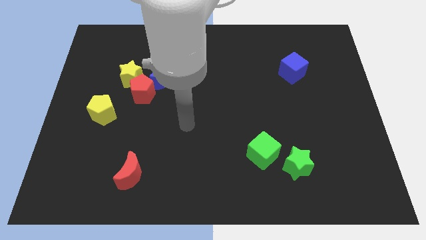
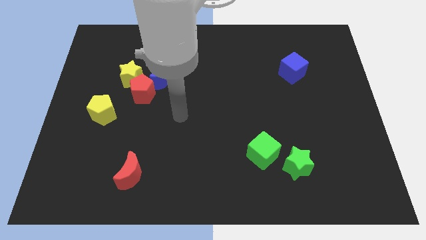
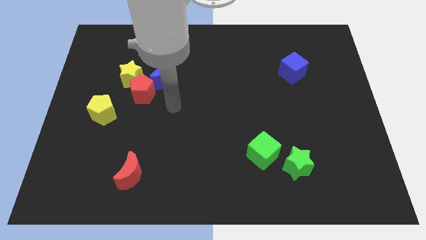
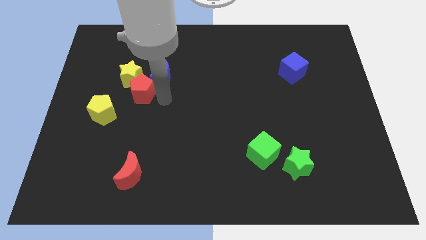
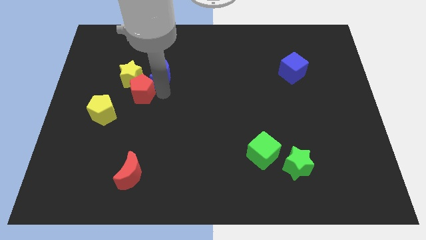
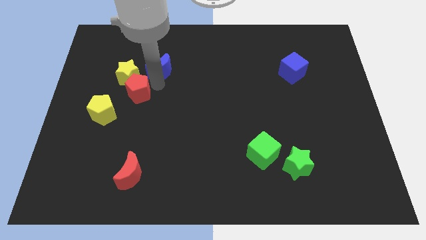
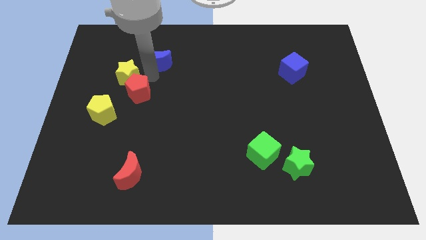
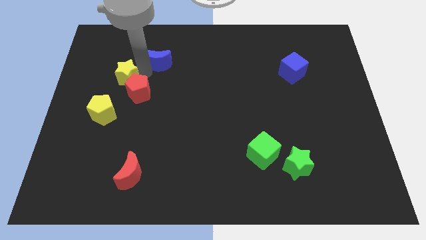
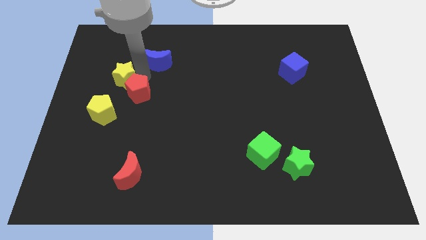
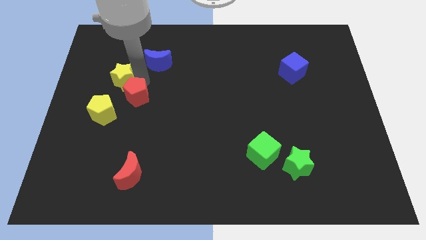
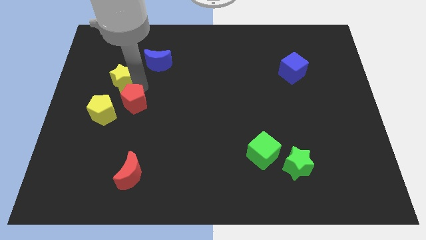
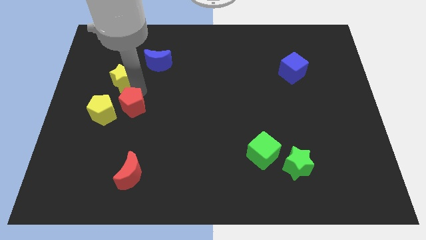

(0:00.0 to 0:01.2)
move the red pentagon away from the yellow star and blue moon

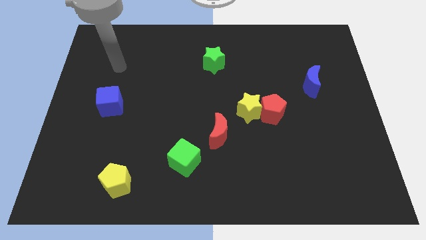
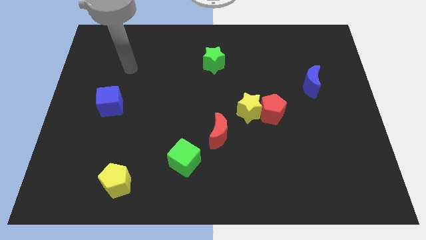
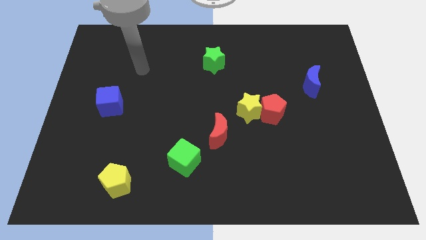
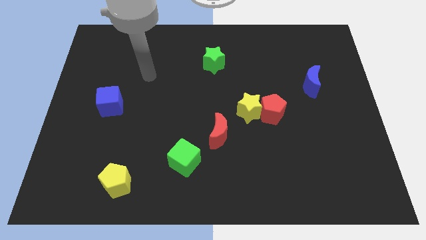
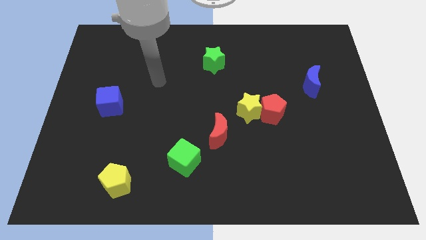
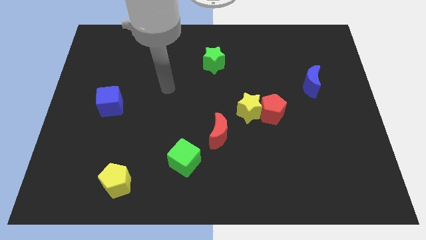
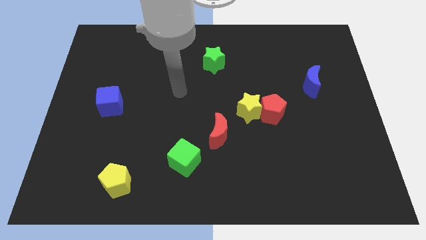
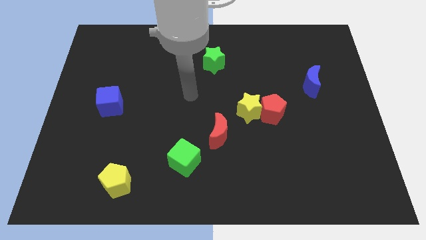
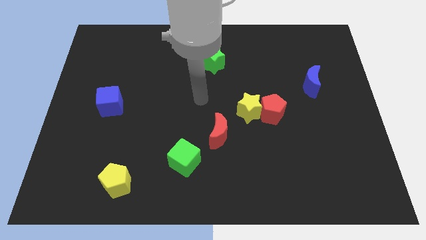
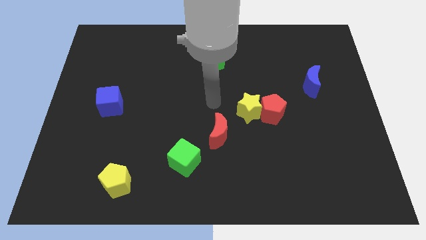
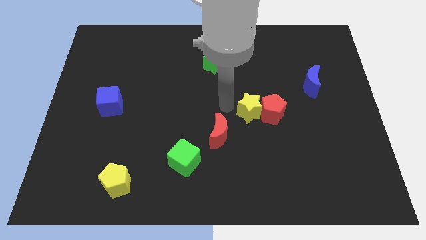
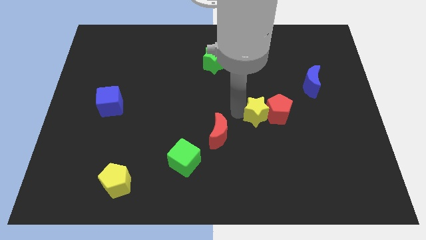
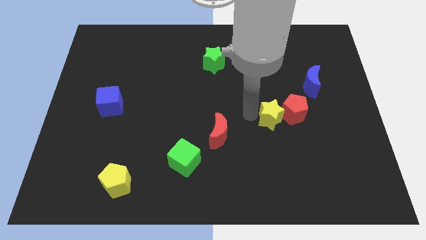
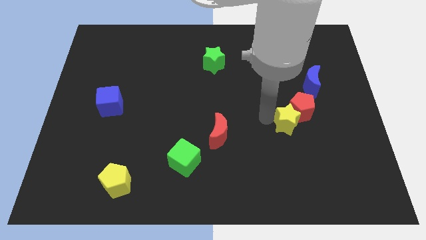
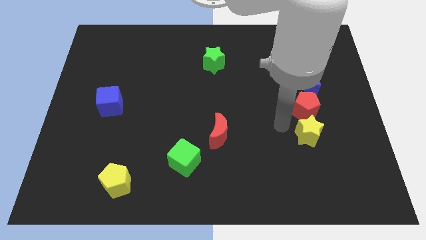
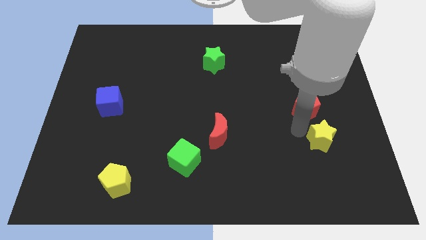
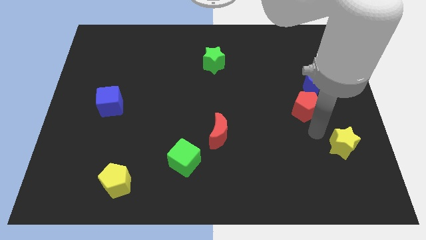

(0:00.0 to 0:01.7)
move the red pentagon away from the yellow star

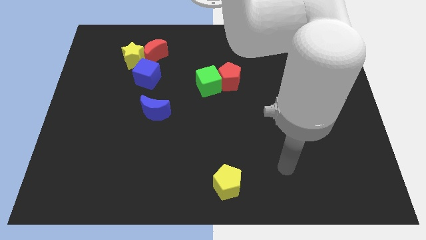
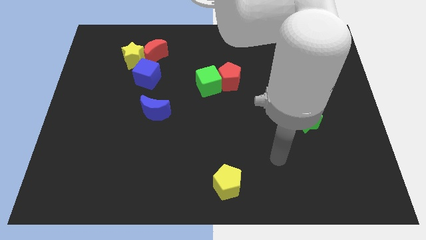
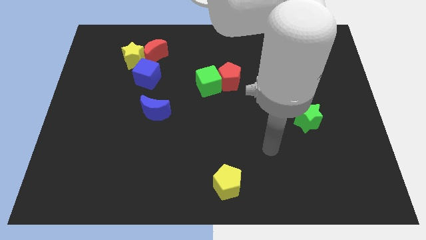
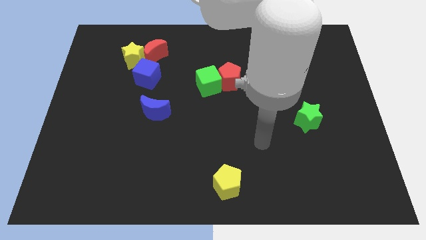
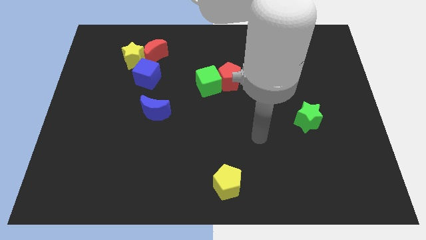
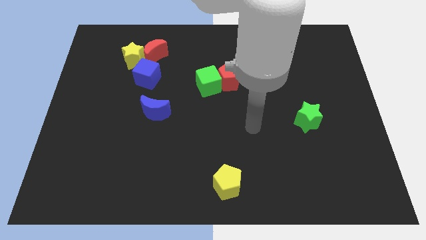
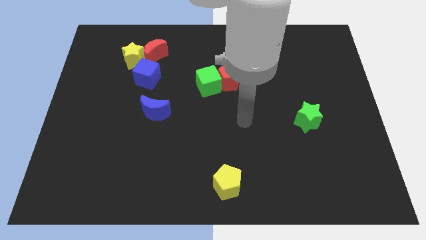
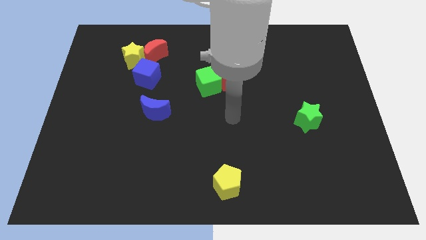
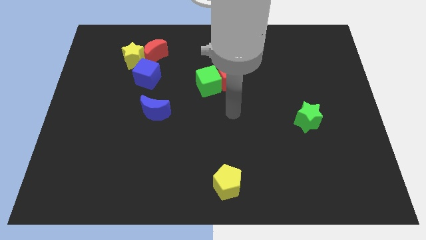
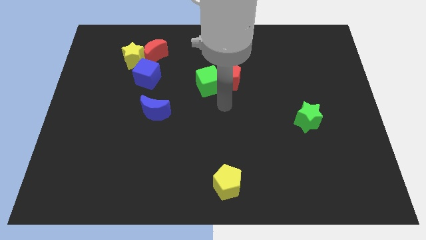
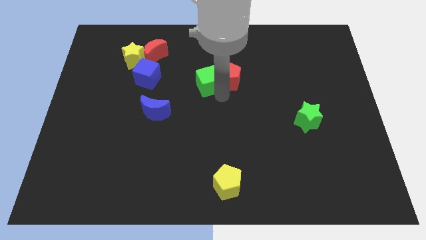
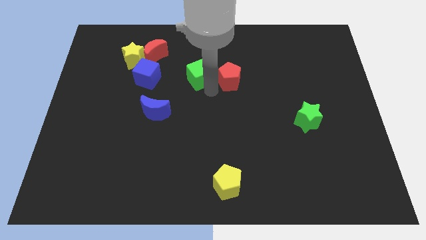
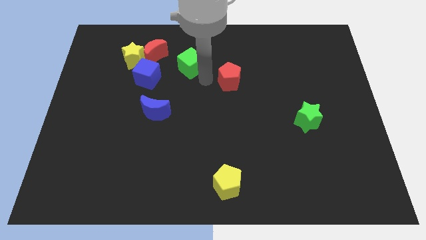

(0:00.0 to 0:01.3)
pull the red pentagon apart from the green cube

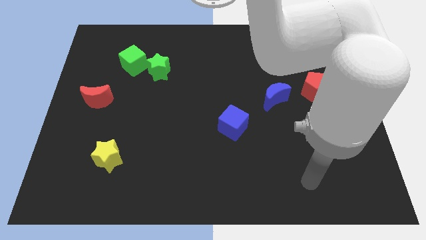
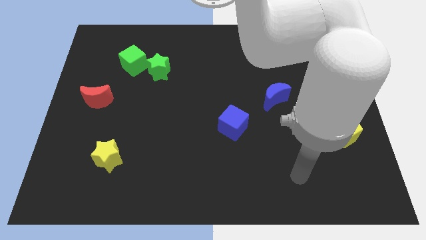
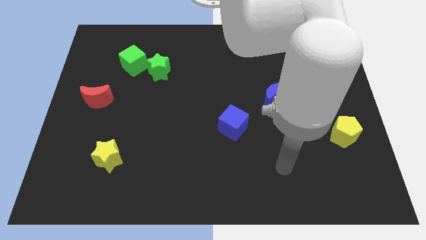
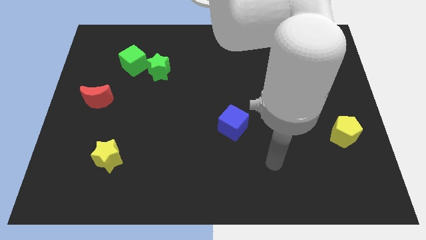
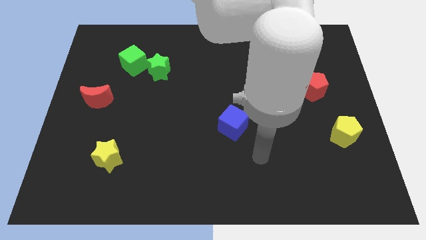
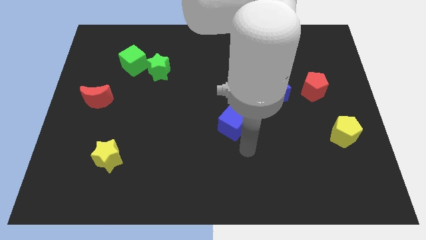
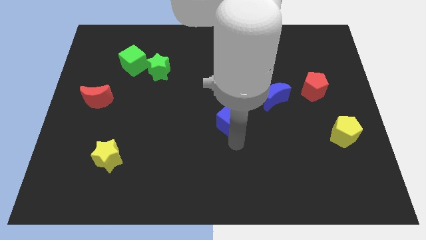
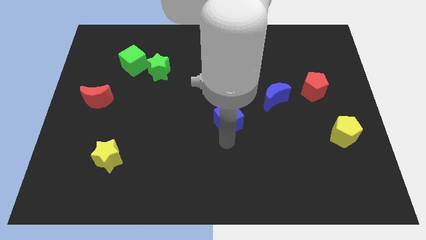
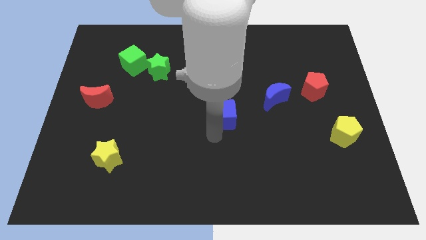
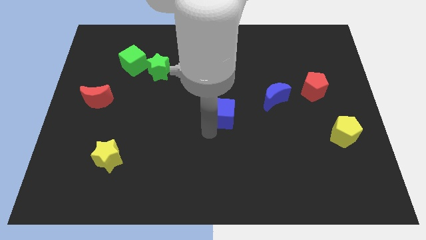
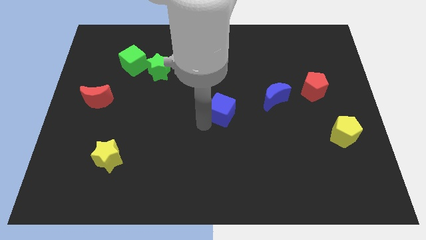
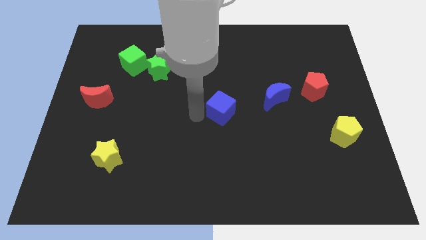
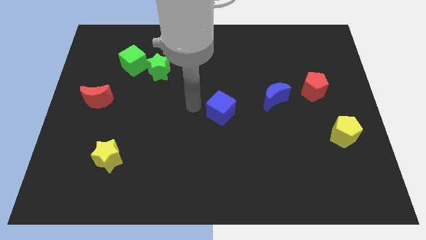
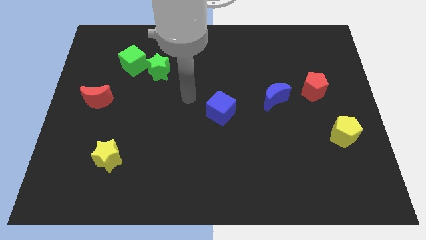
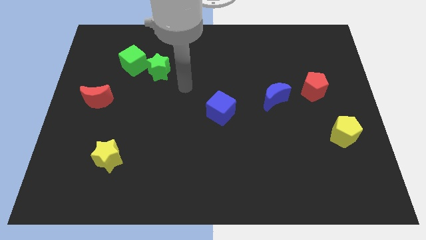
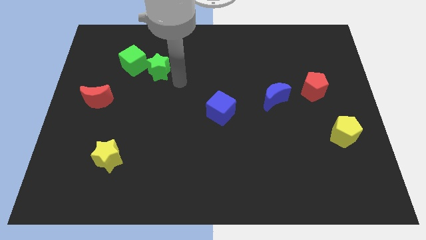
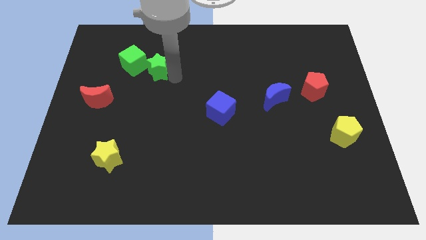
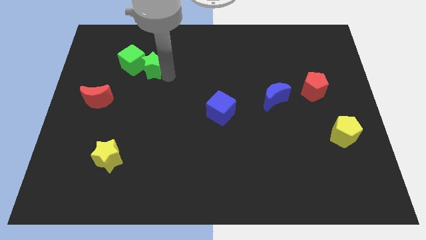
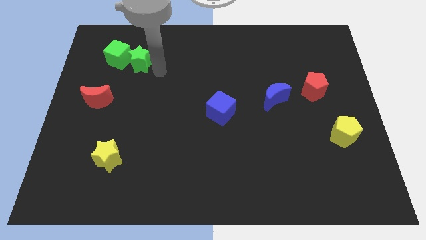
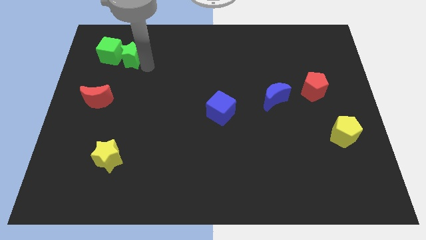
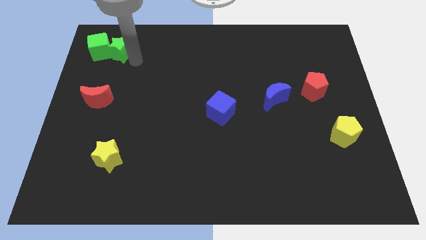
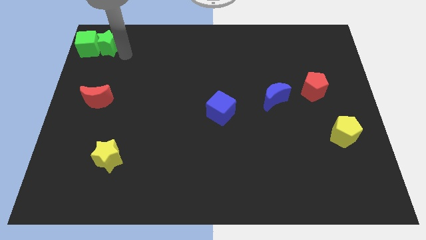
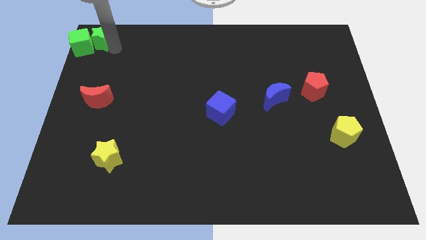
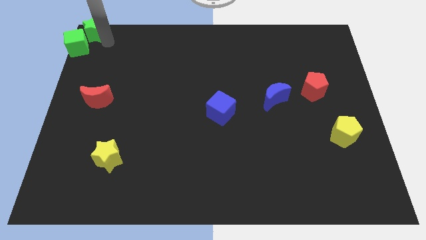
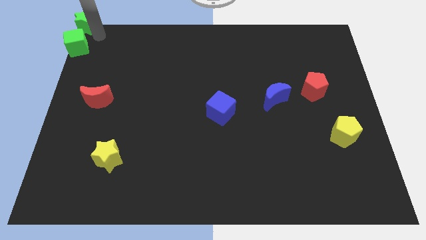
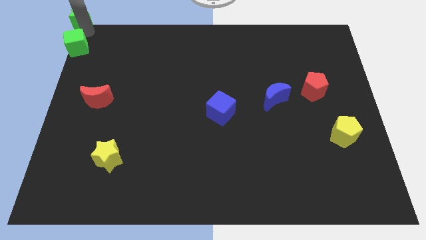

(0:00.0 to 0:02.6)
separate the green cube from the green star

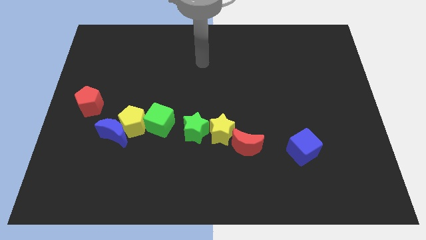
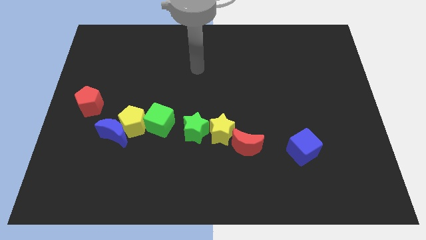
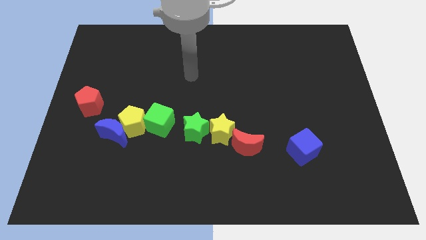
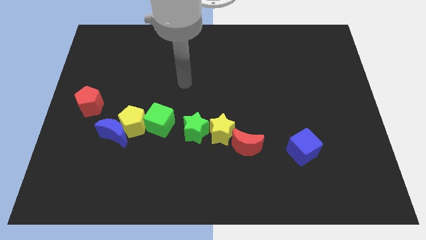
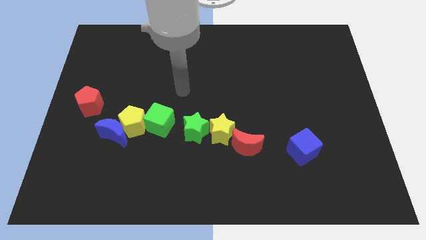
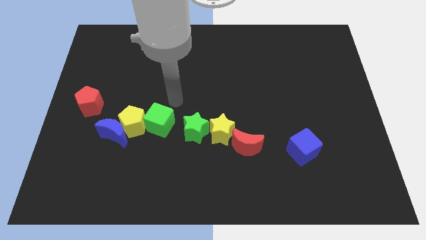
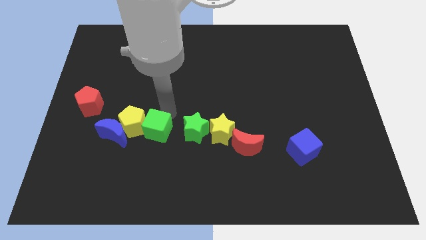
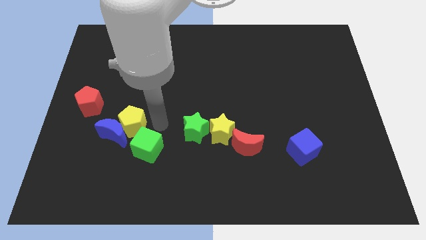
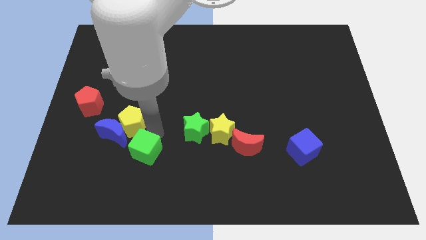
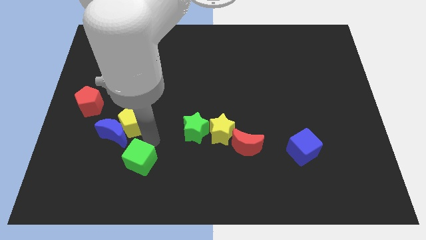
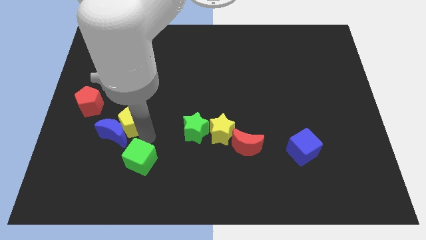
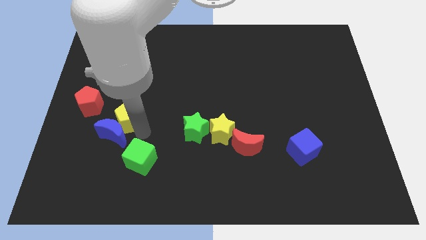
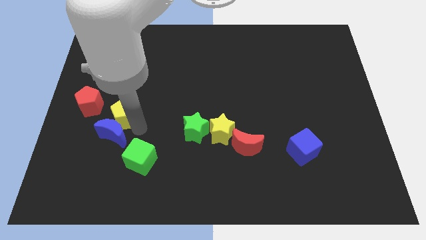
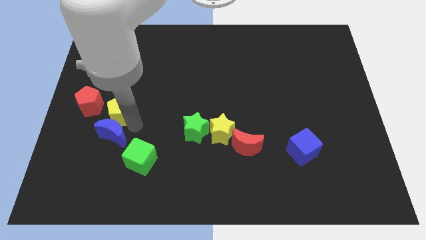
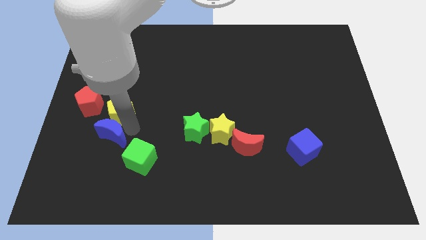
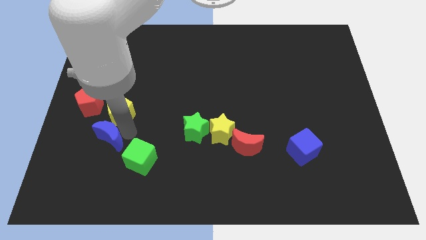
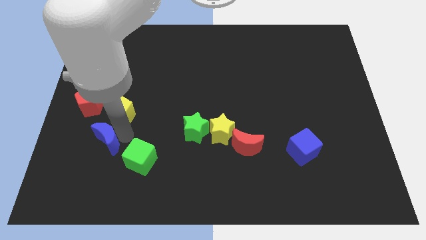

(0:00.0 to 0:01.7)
move the yellow pentagon away from the blue moon and green cube

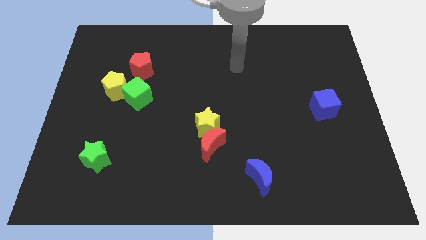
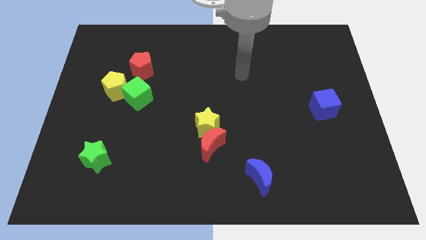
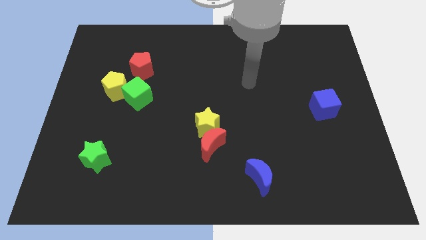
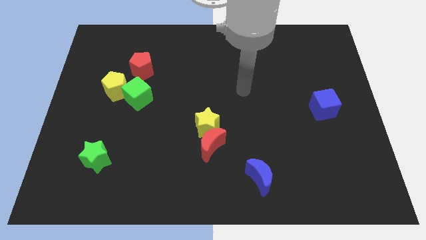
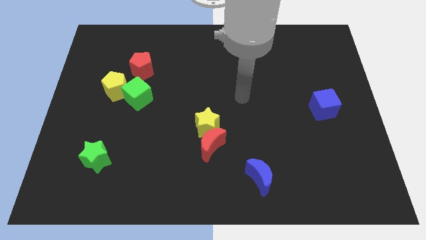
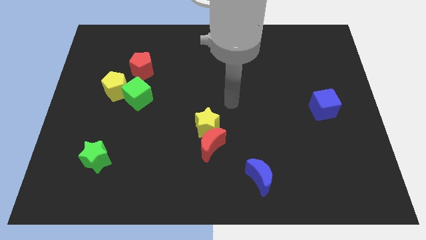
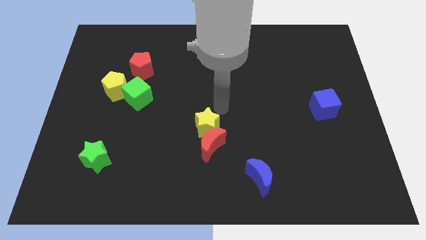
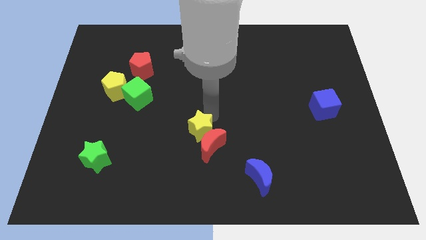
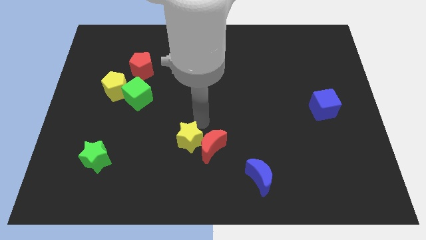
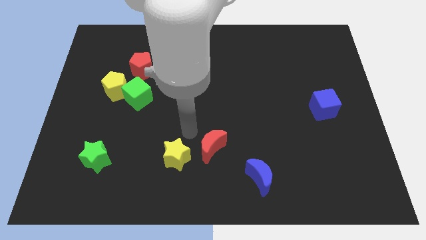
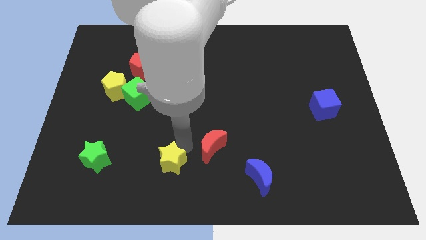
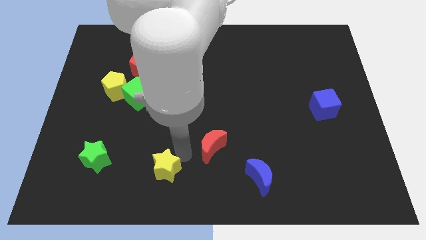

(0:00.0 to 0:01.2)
pull the red moon apart from the yellow star
